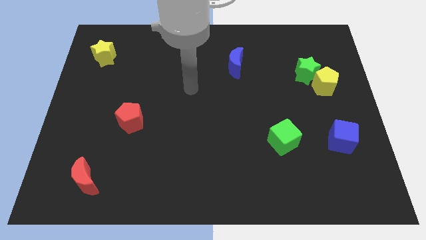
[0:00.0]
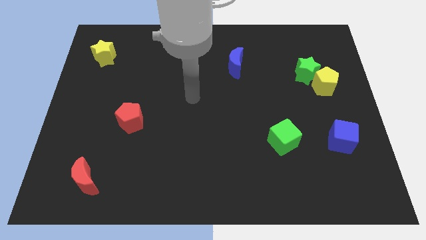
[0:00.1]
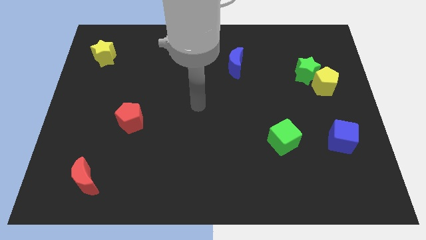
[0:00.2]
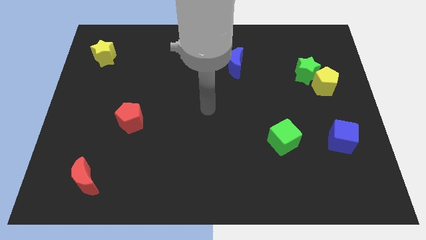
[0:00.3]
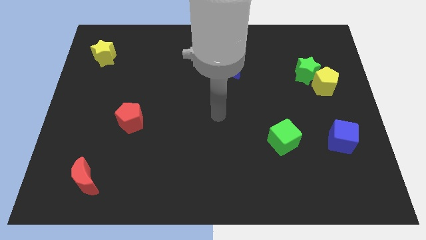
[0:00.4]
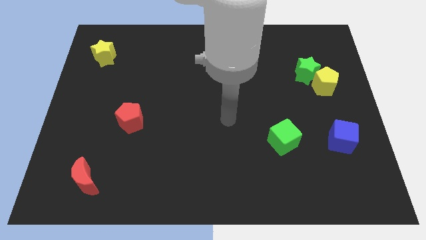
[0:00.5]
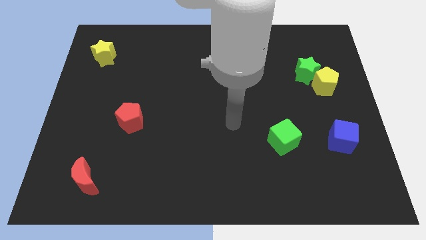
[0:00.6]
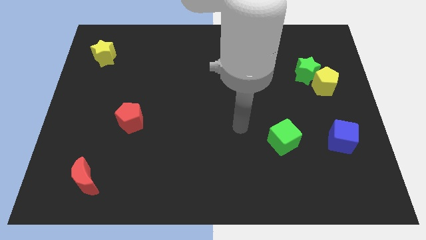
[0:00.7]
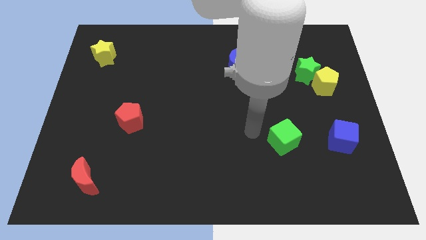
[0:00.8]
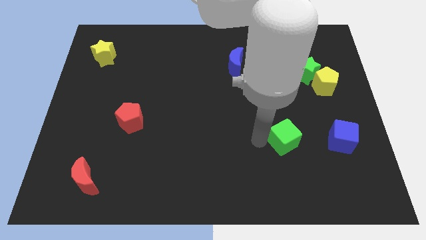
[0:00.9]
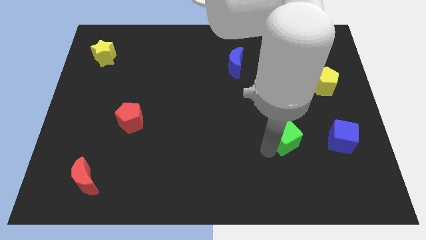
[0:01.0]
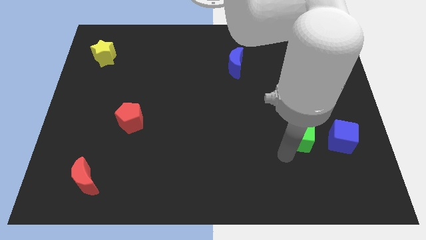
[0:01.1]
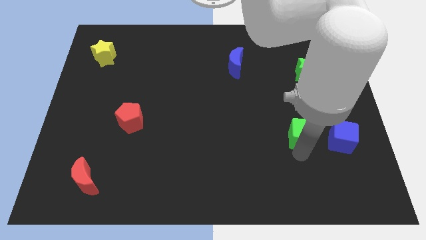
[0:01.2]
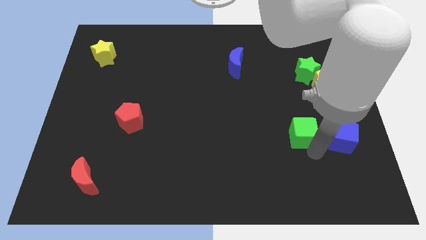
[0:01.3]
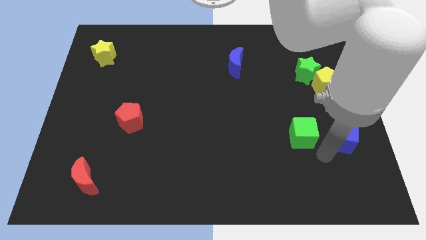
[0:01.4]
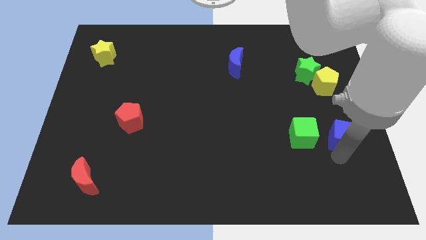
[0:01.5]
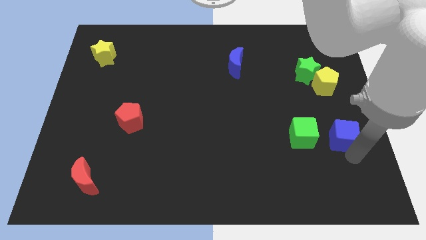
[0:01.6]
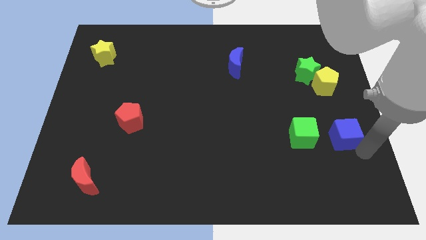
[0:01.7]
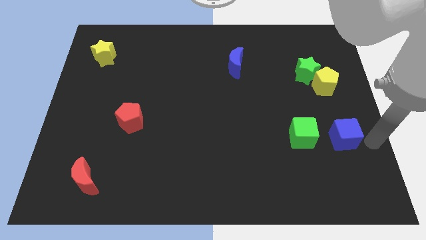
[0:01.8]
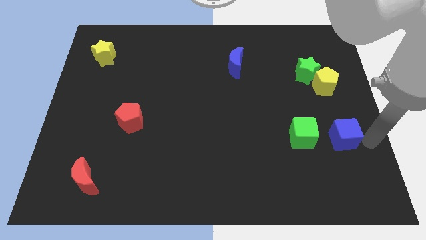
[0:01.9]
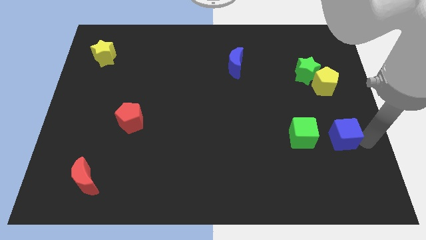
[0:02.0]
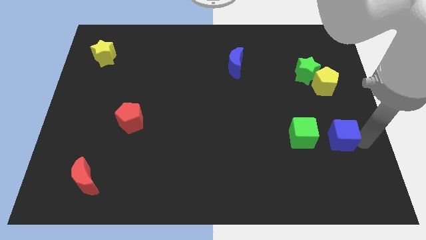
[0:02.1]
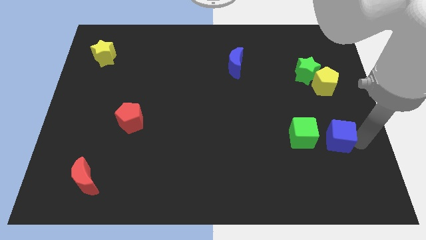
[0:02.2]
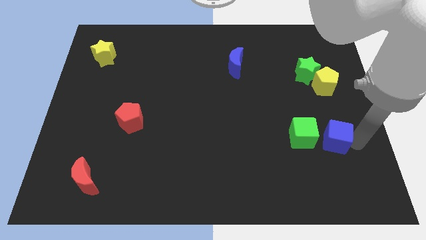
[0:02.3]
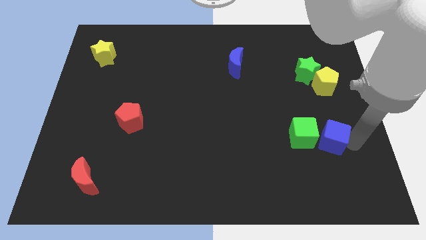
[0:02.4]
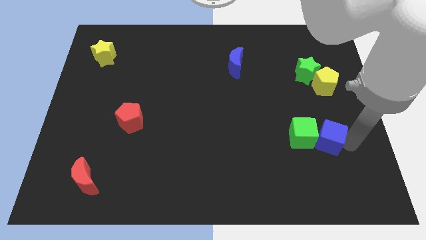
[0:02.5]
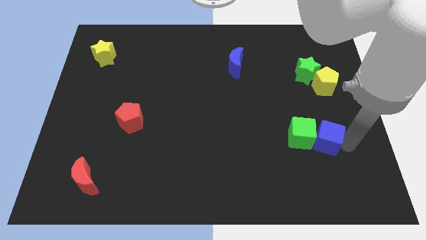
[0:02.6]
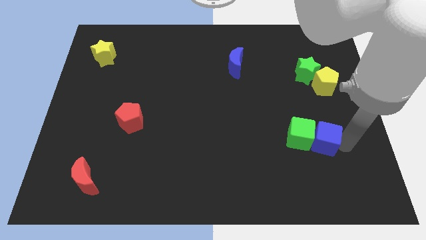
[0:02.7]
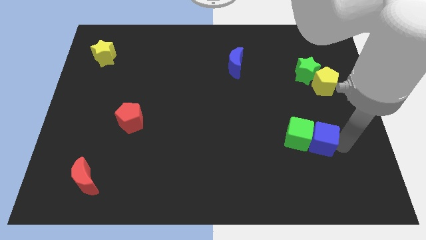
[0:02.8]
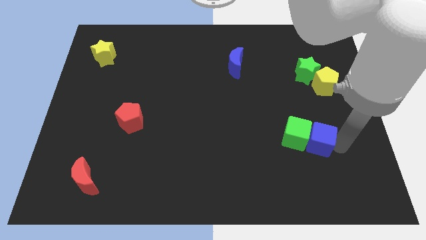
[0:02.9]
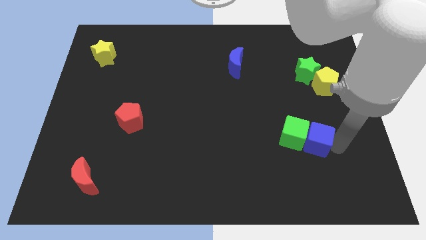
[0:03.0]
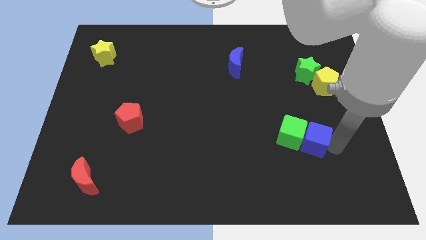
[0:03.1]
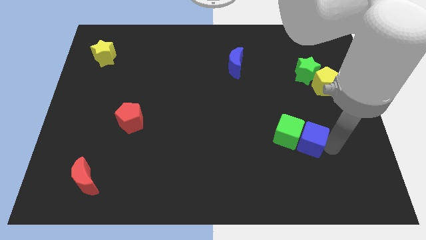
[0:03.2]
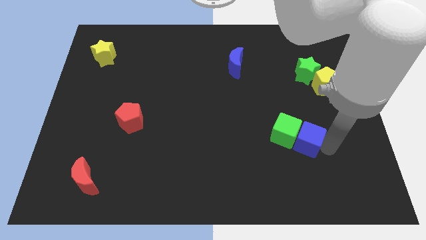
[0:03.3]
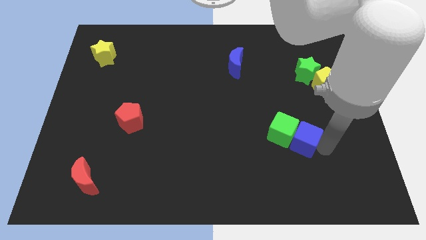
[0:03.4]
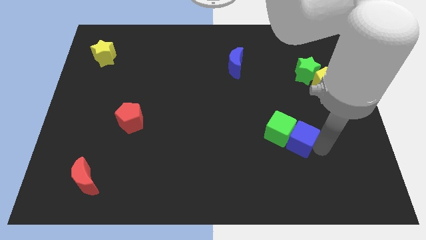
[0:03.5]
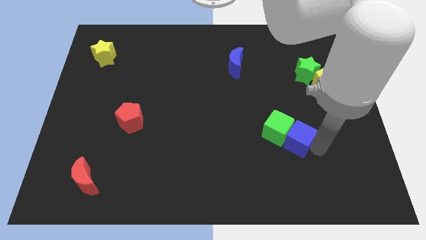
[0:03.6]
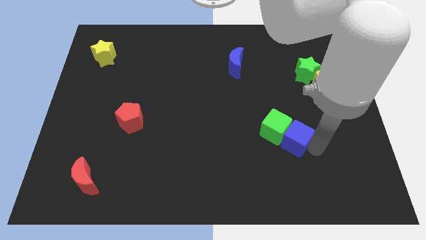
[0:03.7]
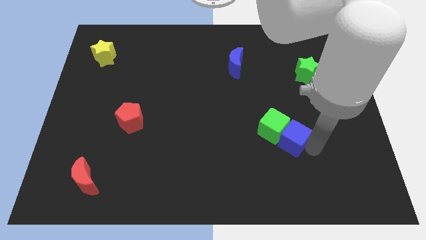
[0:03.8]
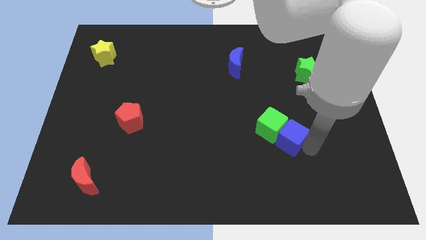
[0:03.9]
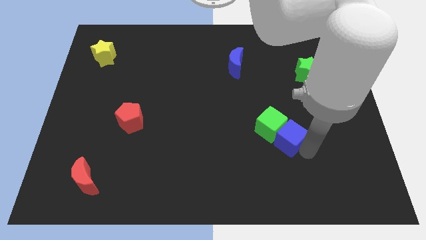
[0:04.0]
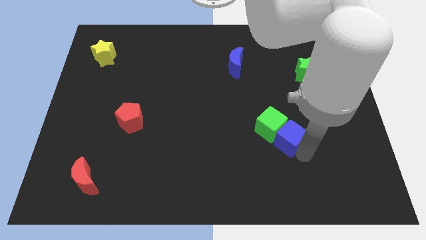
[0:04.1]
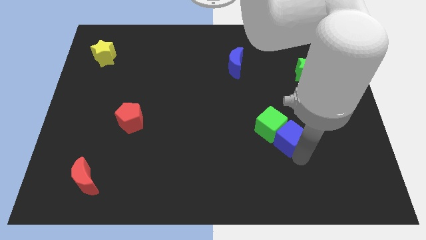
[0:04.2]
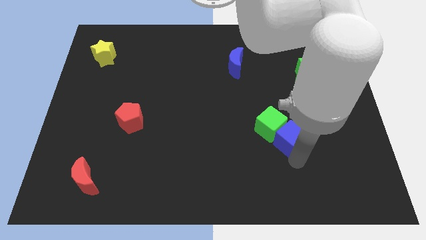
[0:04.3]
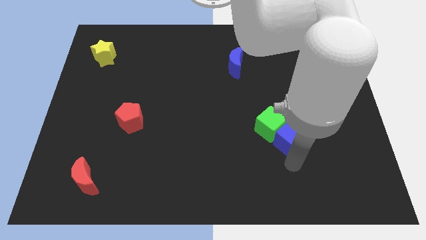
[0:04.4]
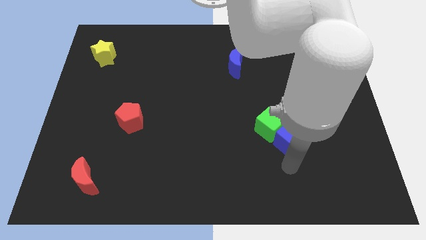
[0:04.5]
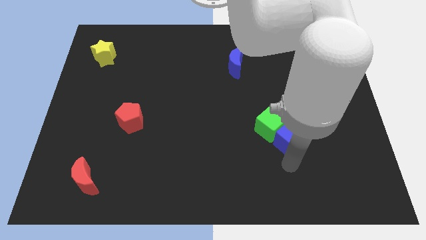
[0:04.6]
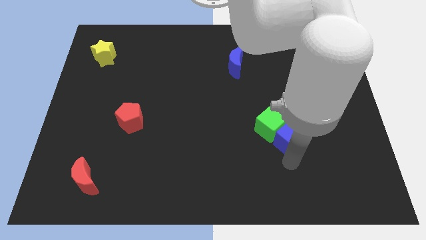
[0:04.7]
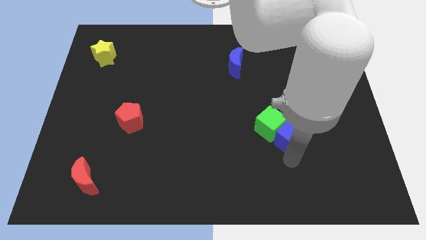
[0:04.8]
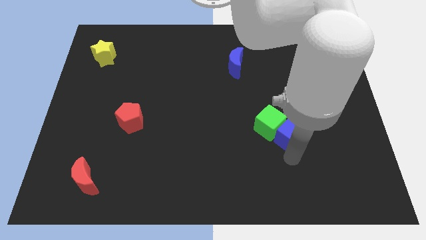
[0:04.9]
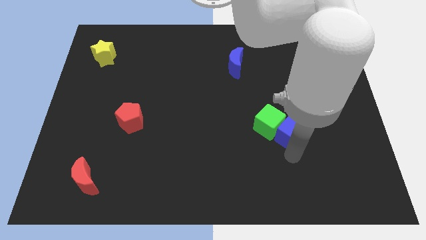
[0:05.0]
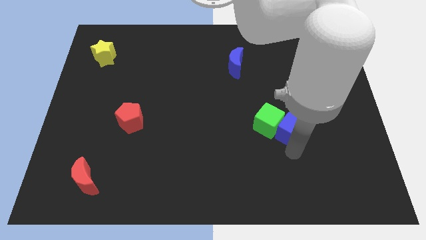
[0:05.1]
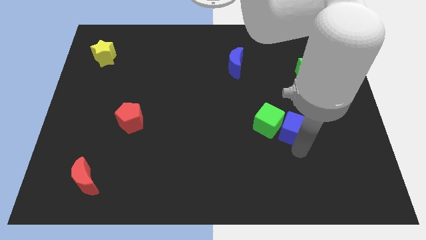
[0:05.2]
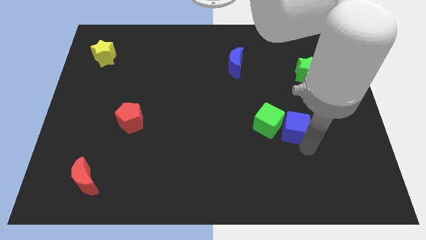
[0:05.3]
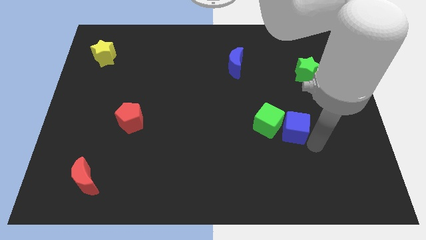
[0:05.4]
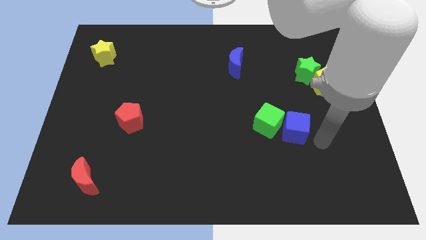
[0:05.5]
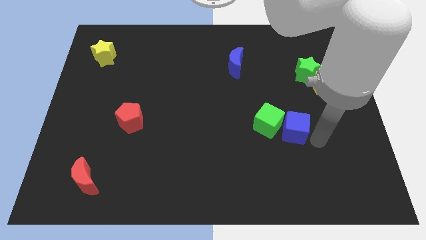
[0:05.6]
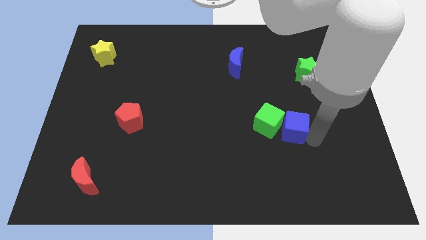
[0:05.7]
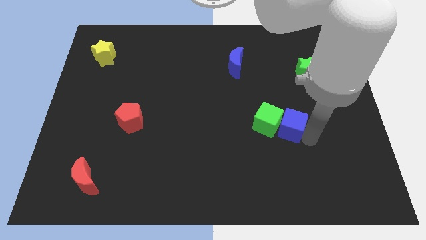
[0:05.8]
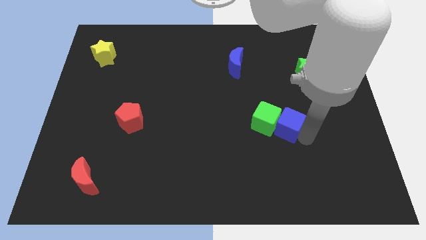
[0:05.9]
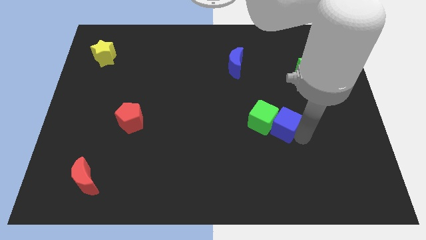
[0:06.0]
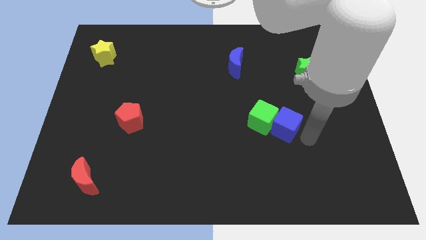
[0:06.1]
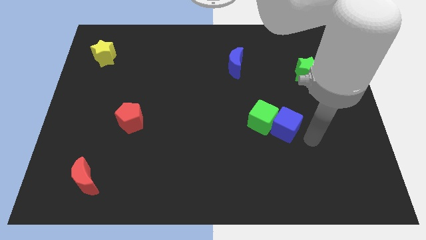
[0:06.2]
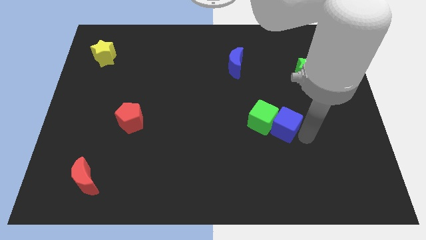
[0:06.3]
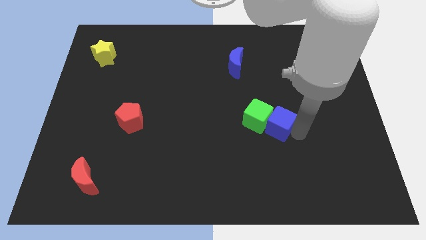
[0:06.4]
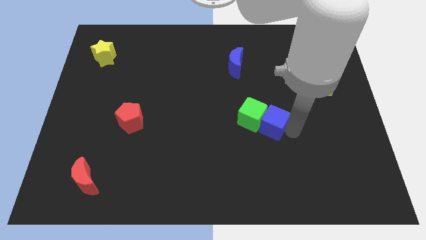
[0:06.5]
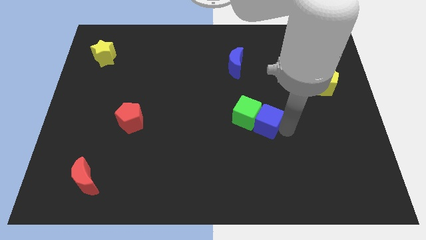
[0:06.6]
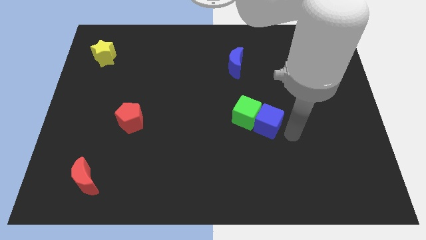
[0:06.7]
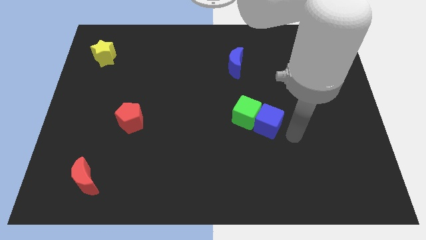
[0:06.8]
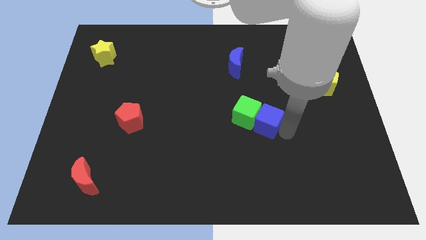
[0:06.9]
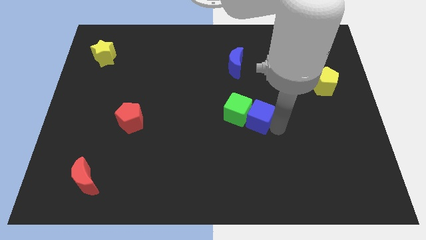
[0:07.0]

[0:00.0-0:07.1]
push the blue cube to the middle

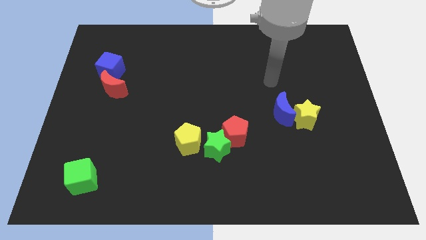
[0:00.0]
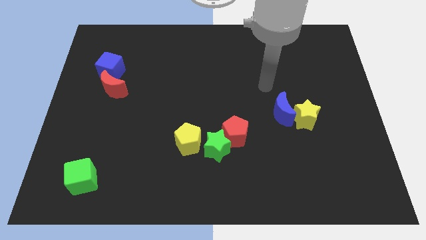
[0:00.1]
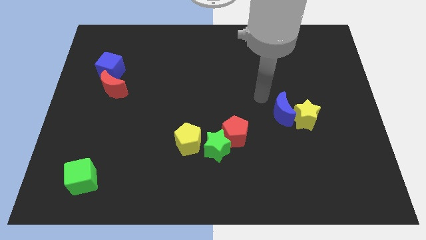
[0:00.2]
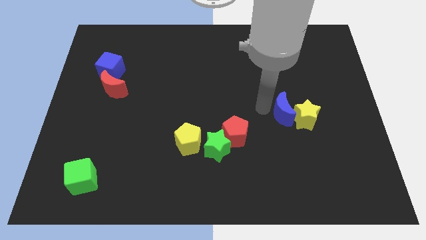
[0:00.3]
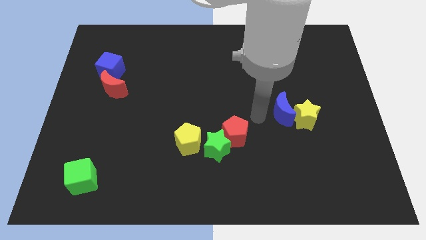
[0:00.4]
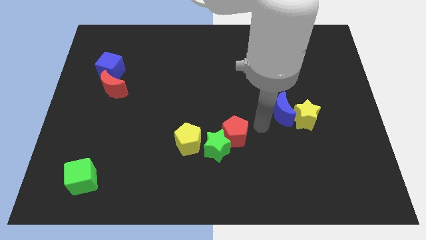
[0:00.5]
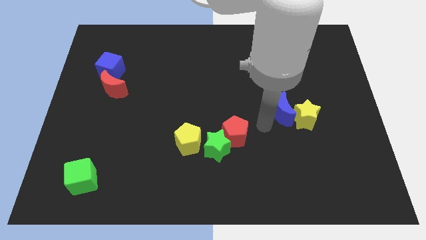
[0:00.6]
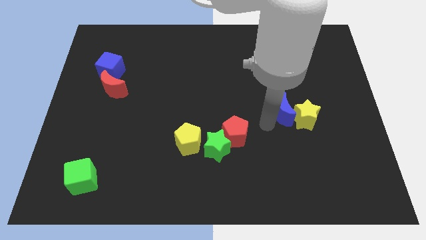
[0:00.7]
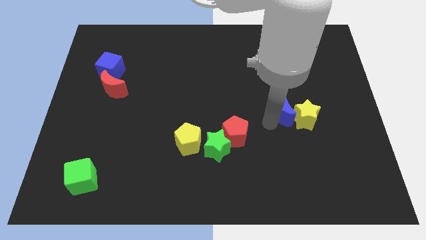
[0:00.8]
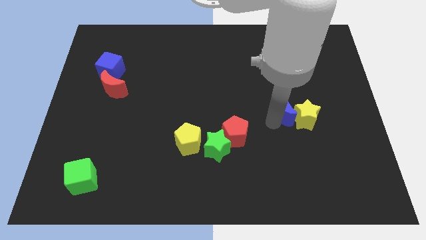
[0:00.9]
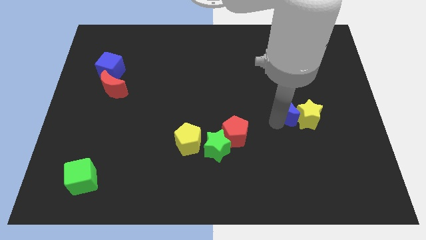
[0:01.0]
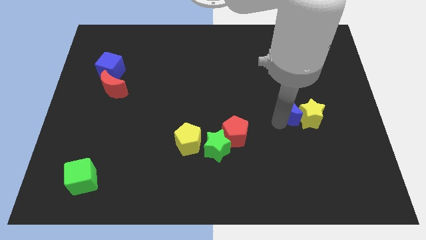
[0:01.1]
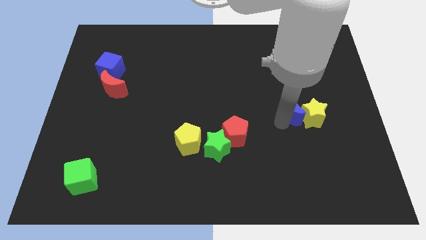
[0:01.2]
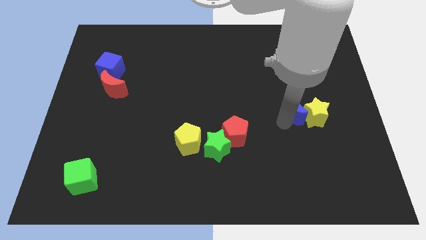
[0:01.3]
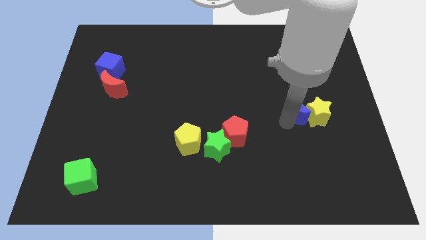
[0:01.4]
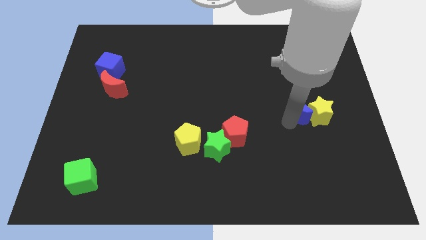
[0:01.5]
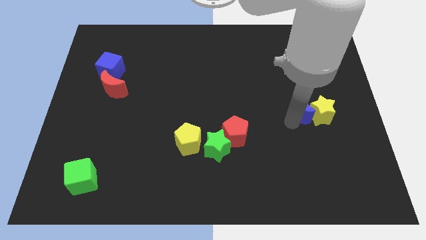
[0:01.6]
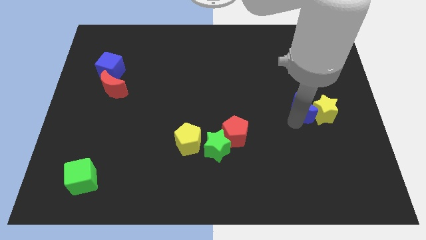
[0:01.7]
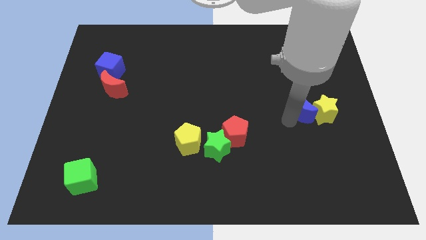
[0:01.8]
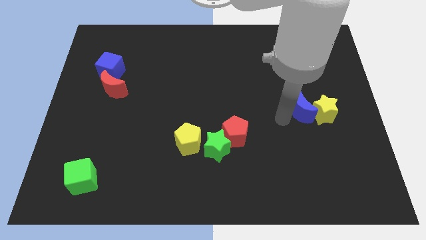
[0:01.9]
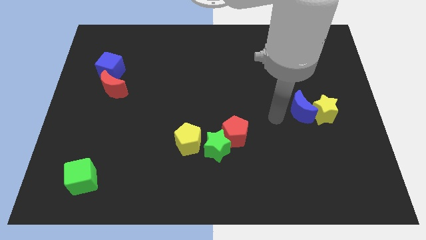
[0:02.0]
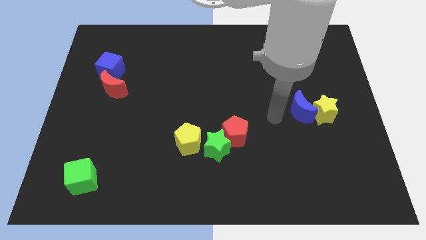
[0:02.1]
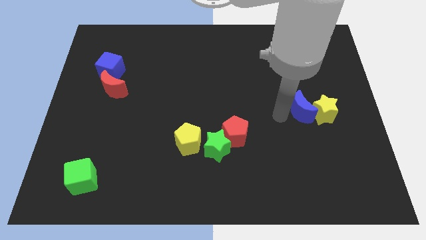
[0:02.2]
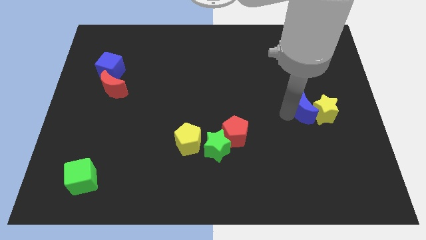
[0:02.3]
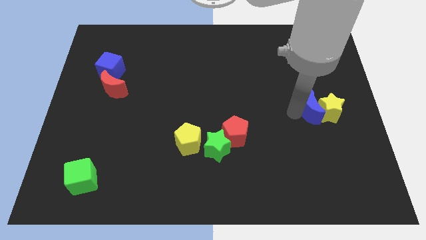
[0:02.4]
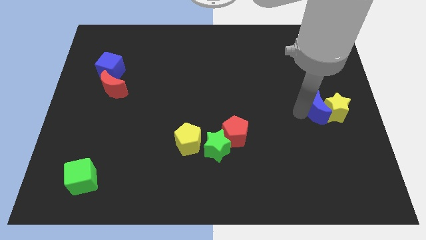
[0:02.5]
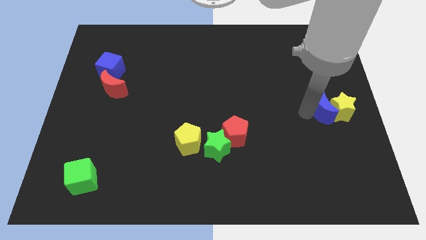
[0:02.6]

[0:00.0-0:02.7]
slide the blue moon to the center right
